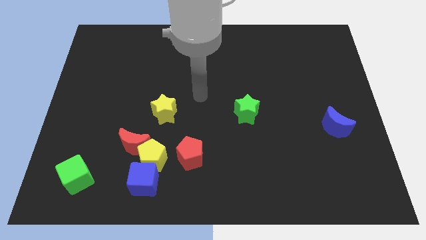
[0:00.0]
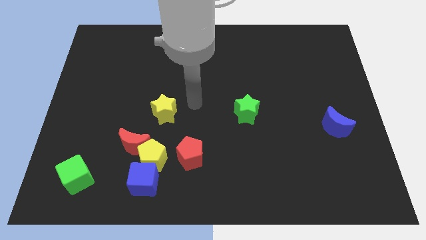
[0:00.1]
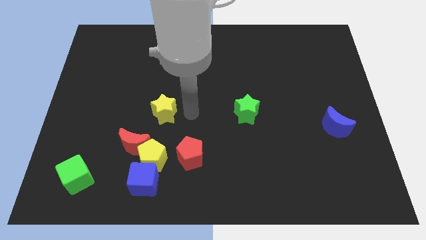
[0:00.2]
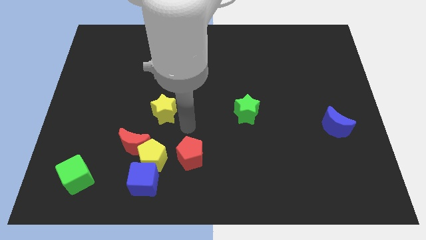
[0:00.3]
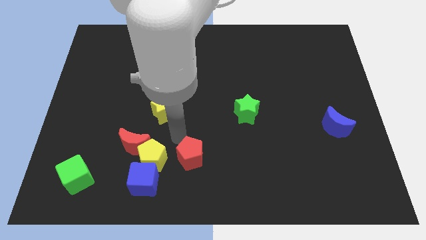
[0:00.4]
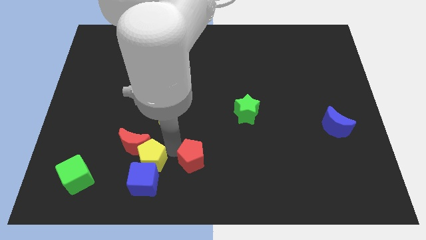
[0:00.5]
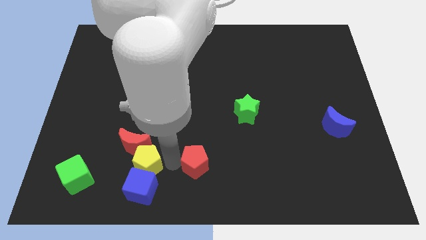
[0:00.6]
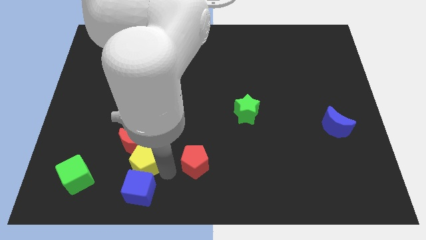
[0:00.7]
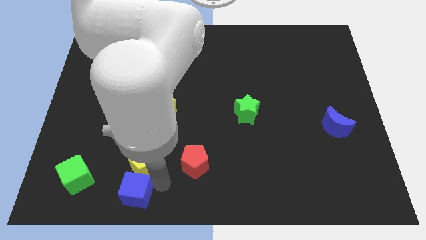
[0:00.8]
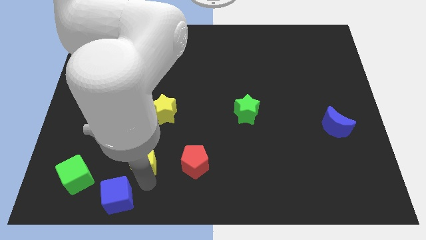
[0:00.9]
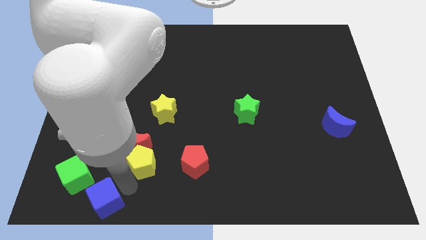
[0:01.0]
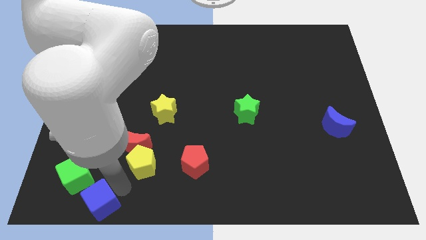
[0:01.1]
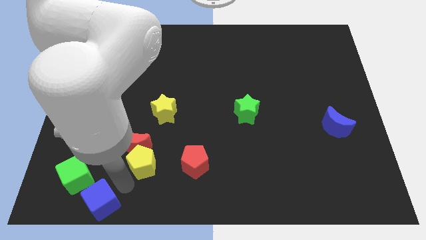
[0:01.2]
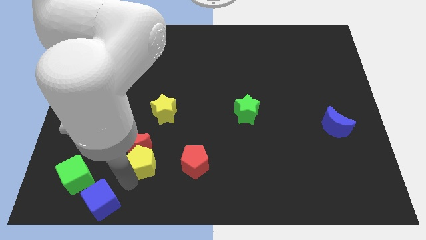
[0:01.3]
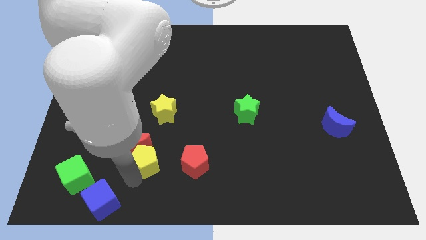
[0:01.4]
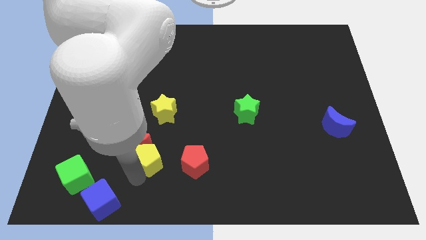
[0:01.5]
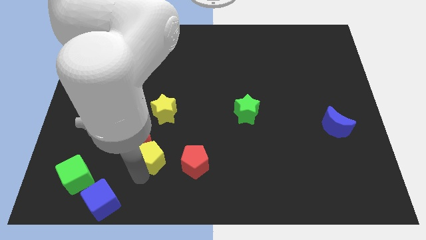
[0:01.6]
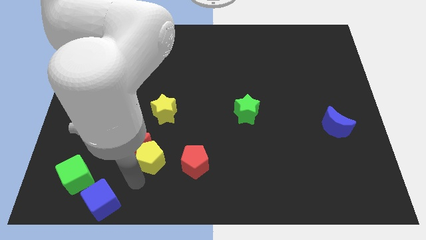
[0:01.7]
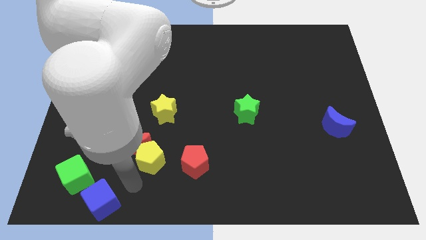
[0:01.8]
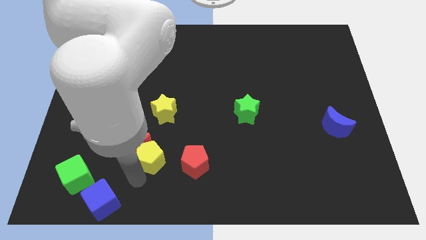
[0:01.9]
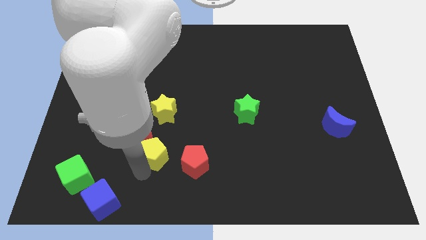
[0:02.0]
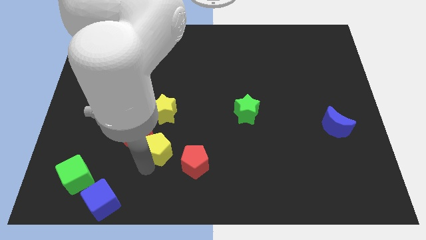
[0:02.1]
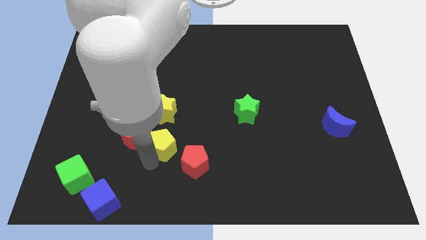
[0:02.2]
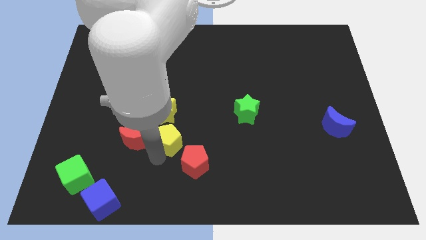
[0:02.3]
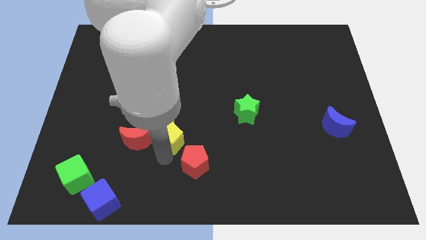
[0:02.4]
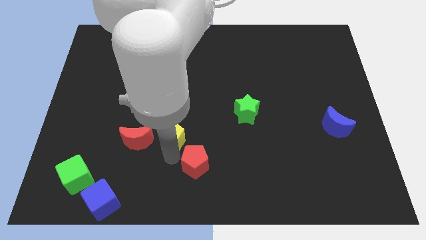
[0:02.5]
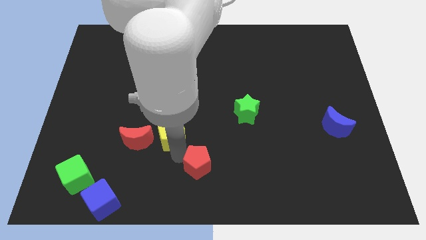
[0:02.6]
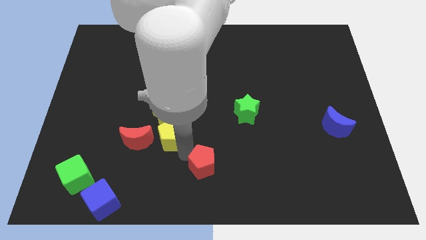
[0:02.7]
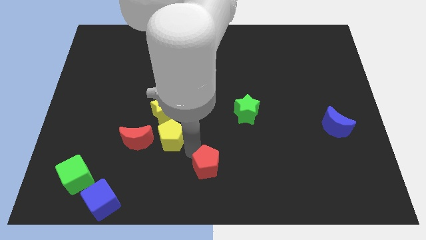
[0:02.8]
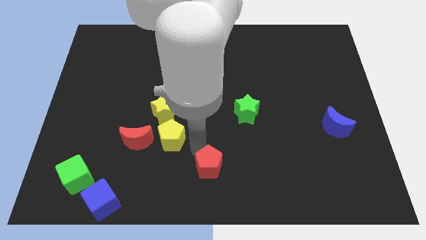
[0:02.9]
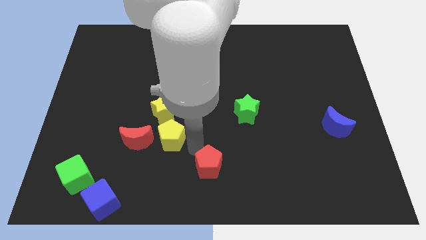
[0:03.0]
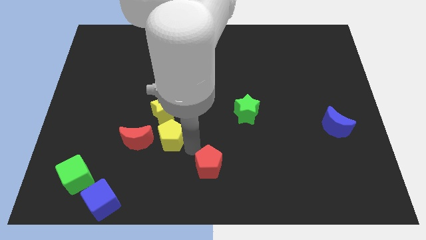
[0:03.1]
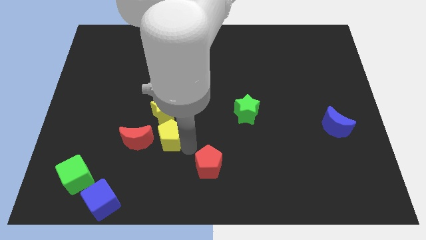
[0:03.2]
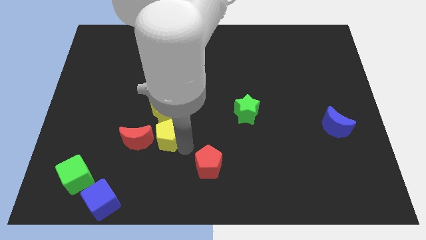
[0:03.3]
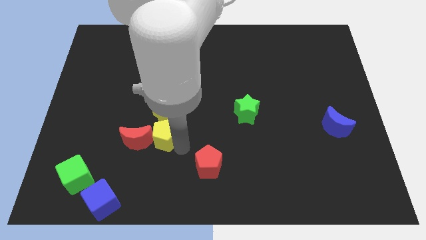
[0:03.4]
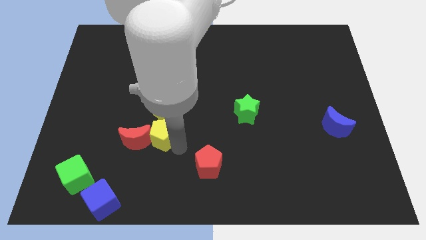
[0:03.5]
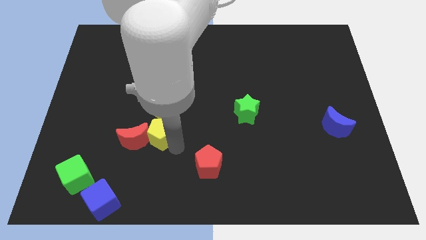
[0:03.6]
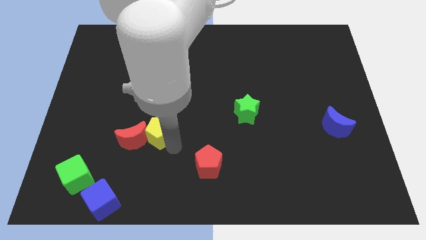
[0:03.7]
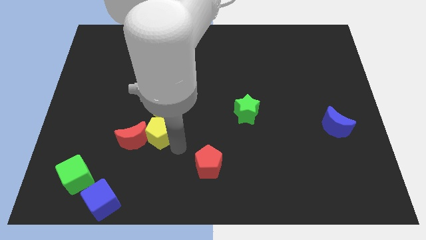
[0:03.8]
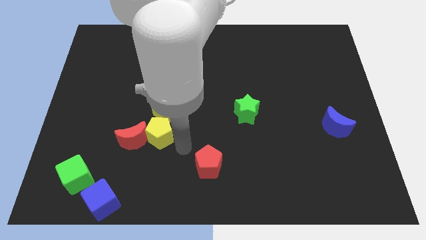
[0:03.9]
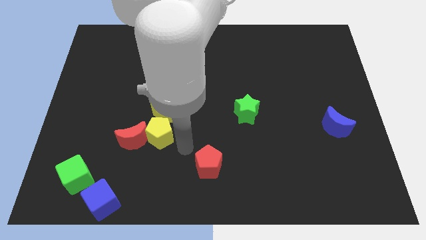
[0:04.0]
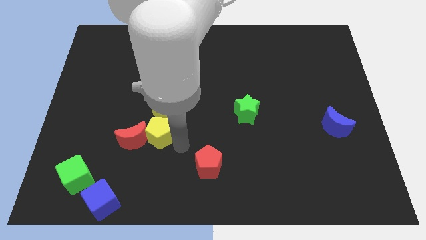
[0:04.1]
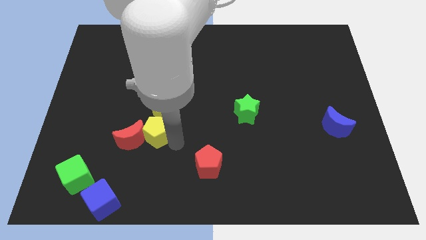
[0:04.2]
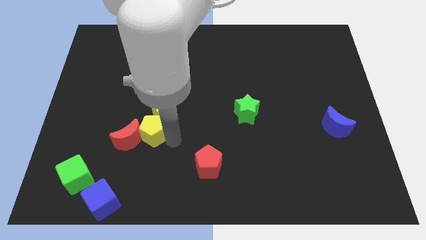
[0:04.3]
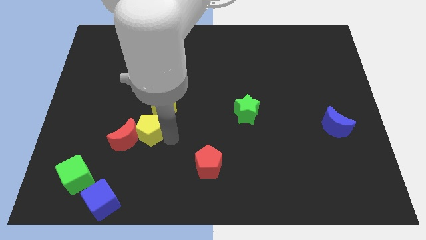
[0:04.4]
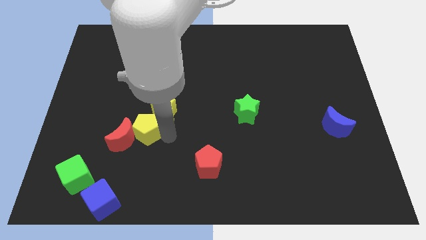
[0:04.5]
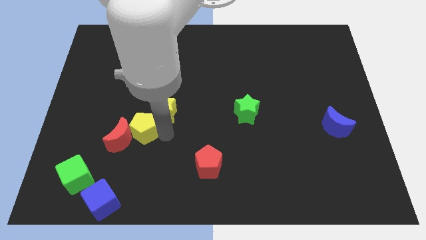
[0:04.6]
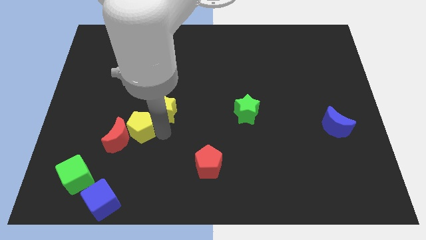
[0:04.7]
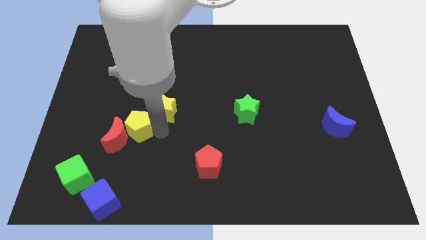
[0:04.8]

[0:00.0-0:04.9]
separate the yellow pentagon from the group of blocks

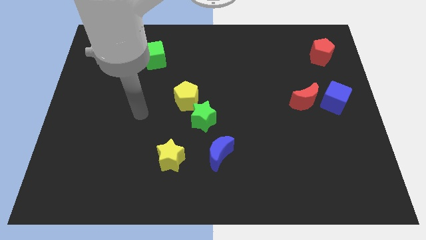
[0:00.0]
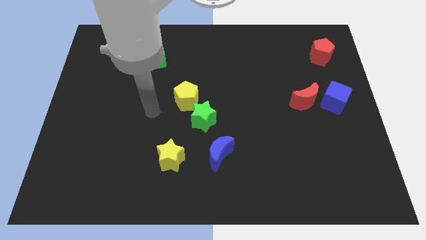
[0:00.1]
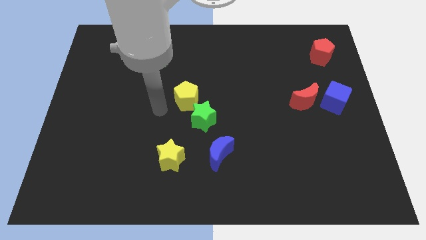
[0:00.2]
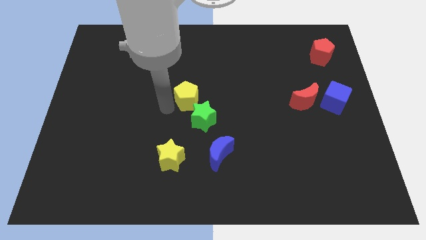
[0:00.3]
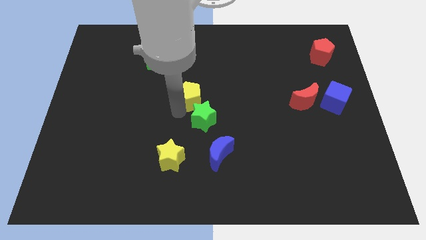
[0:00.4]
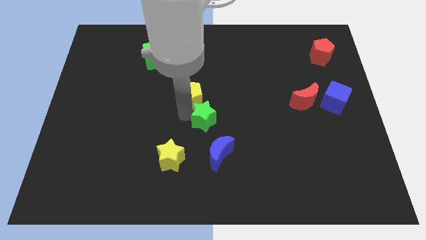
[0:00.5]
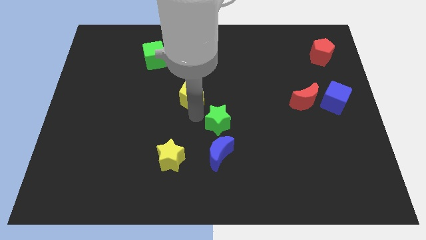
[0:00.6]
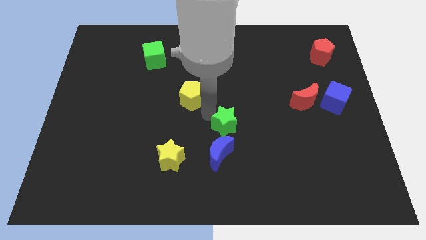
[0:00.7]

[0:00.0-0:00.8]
separate the yellow pentagon from the green star

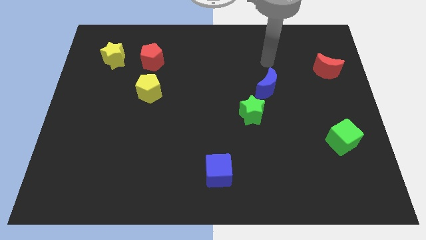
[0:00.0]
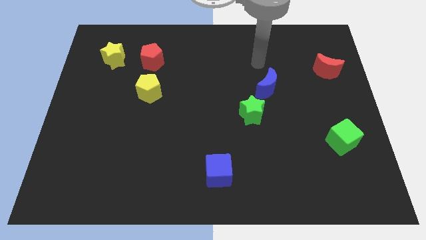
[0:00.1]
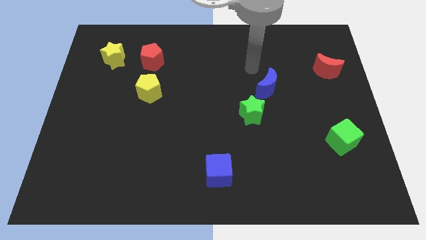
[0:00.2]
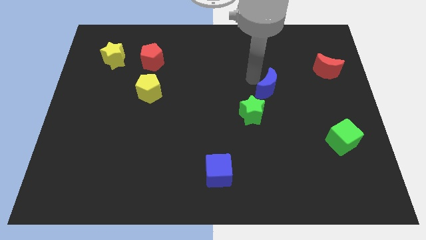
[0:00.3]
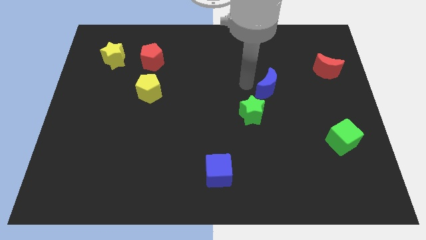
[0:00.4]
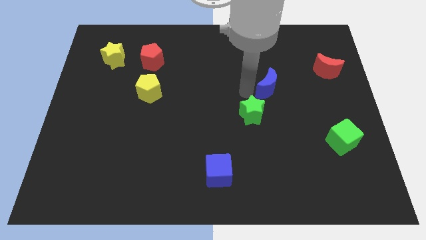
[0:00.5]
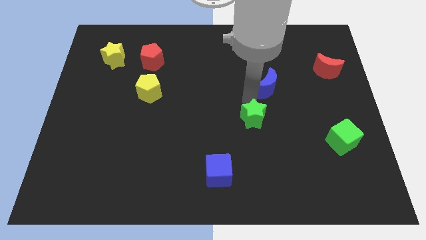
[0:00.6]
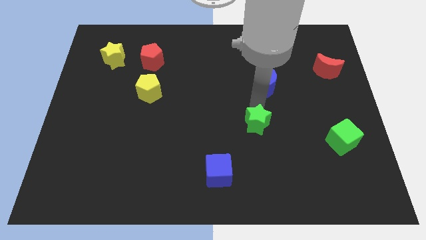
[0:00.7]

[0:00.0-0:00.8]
separate the blue moon from the green star

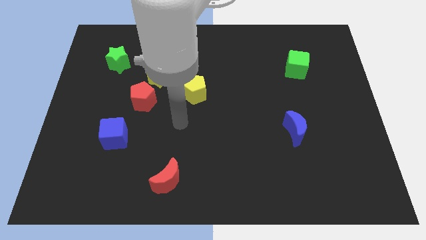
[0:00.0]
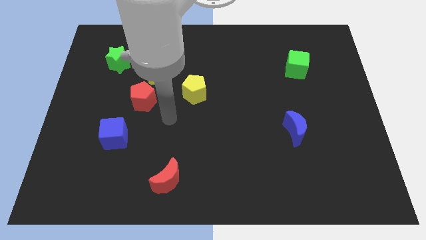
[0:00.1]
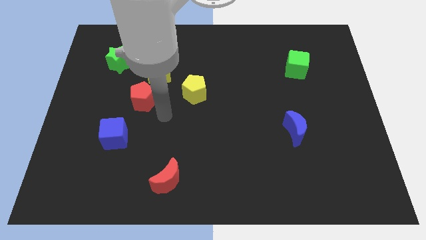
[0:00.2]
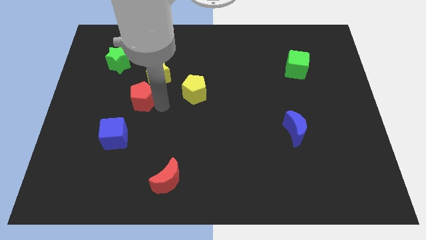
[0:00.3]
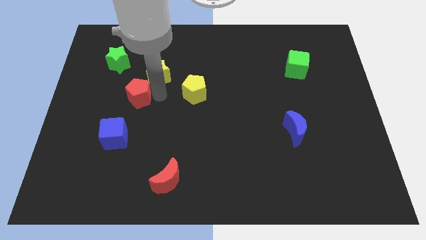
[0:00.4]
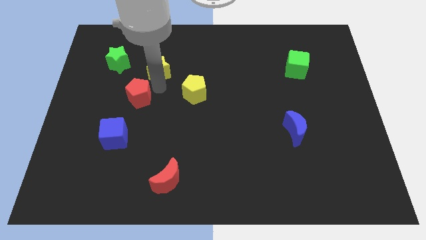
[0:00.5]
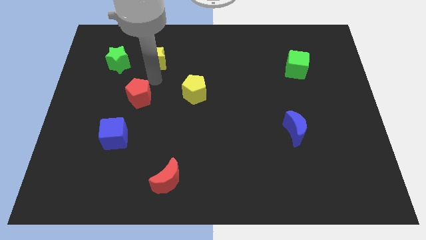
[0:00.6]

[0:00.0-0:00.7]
separate the red pentagon from the yellow star

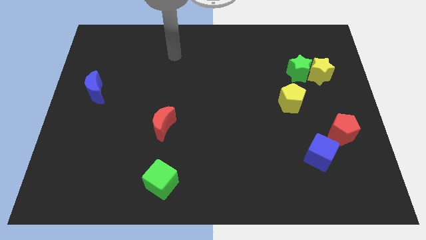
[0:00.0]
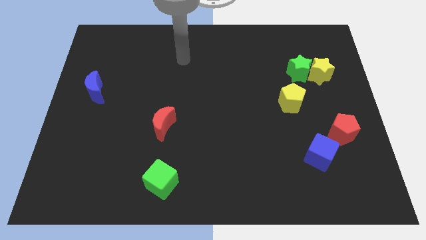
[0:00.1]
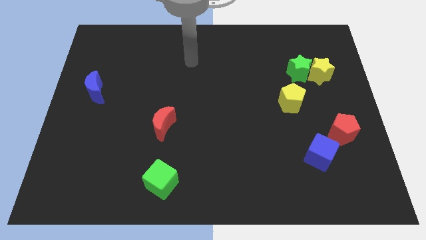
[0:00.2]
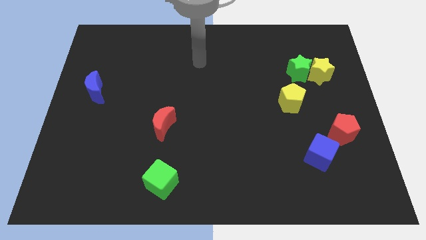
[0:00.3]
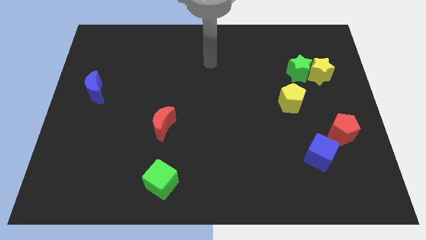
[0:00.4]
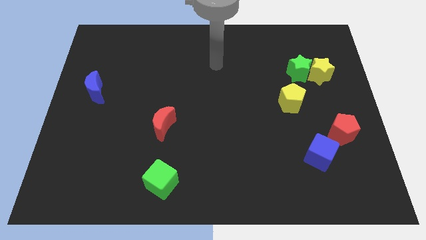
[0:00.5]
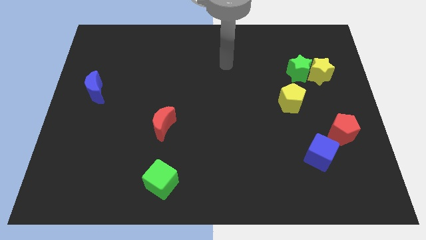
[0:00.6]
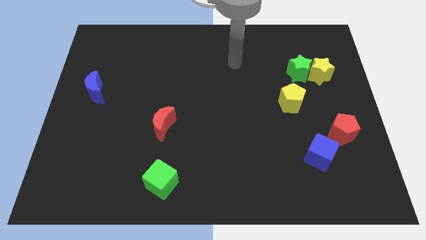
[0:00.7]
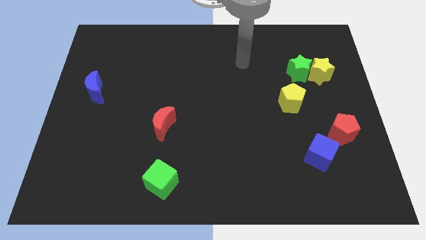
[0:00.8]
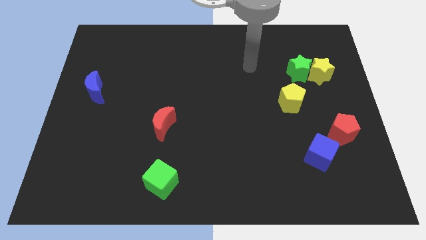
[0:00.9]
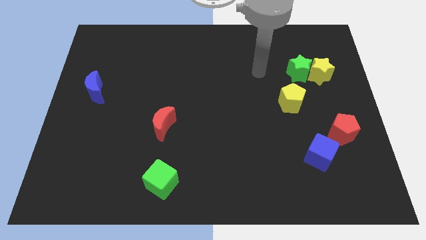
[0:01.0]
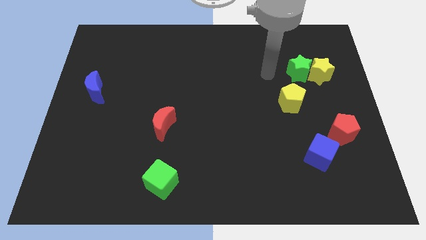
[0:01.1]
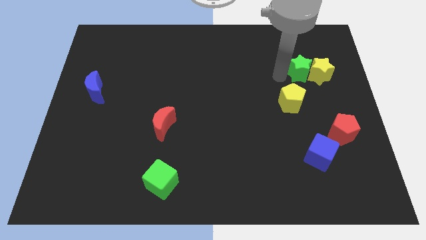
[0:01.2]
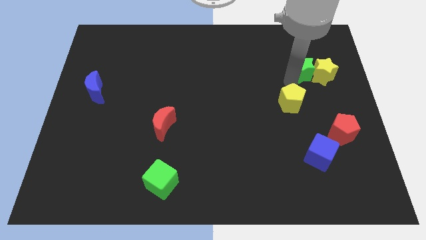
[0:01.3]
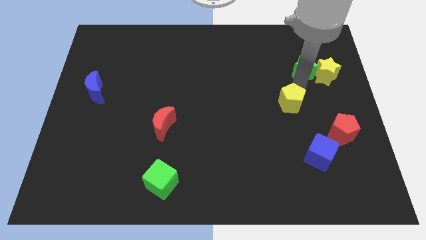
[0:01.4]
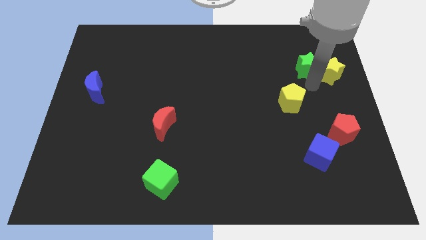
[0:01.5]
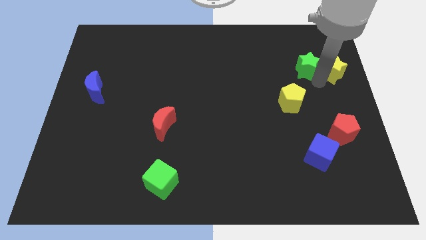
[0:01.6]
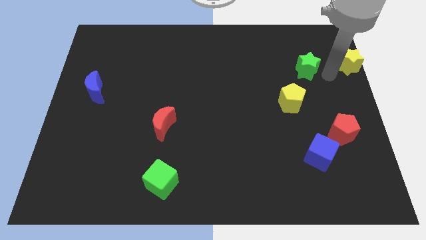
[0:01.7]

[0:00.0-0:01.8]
move the green star away from the yellow star

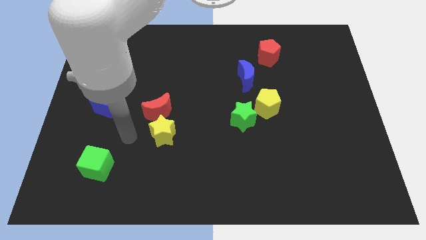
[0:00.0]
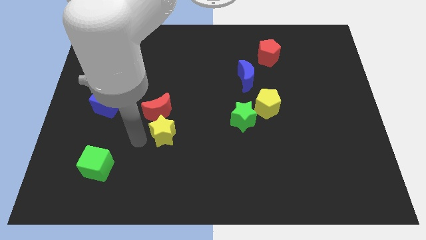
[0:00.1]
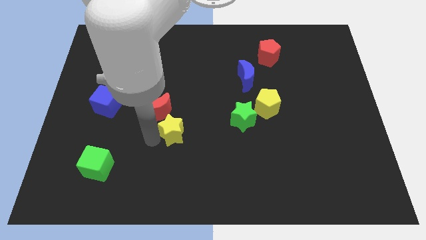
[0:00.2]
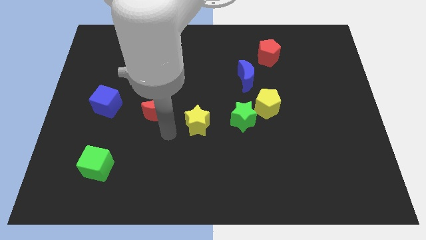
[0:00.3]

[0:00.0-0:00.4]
separate the red moon from the yellow star

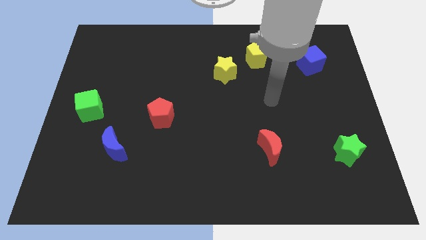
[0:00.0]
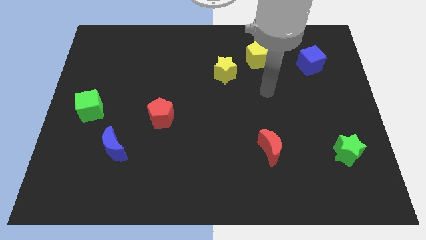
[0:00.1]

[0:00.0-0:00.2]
pull the yellow star apart from the yellow pentagon
